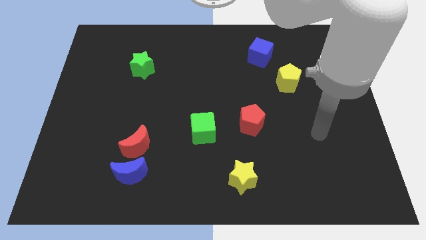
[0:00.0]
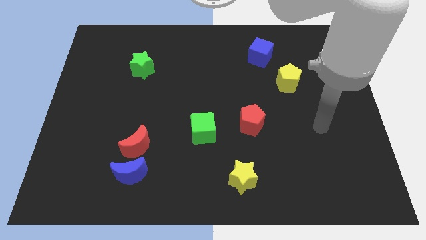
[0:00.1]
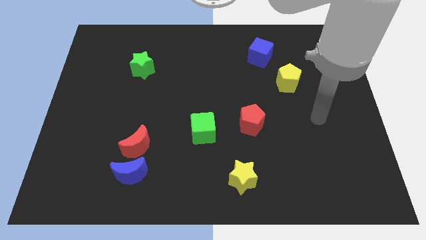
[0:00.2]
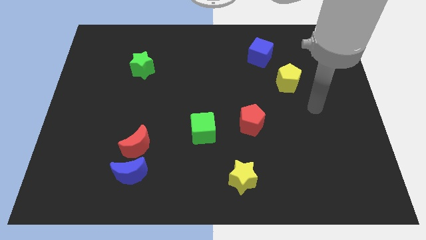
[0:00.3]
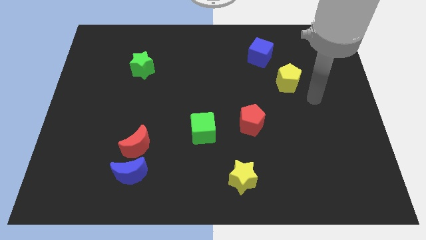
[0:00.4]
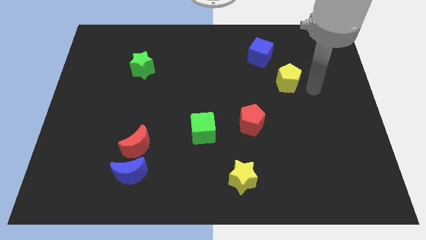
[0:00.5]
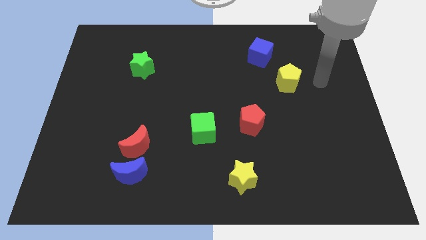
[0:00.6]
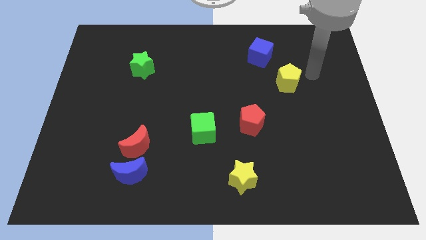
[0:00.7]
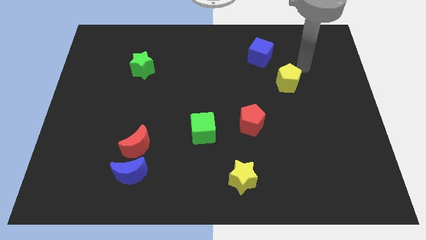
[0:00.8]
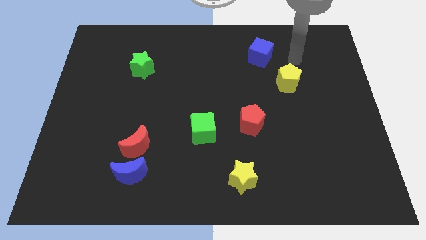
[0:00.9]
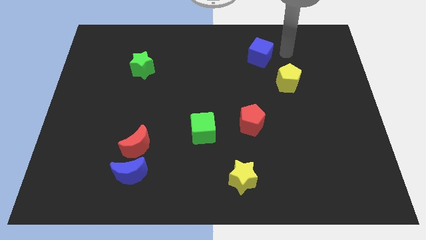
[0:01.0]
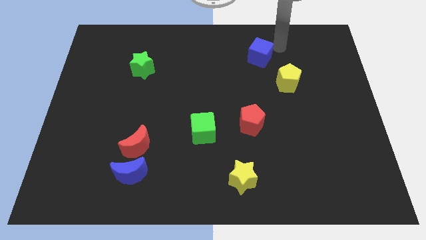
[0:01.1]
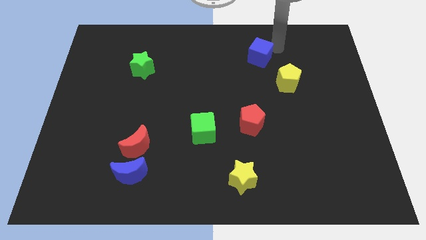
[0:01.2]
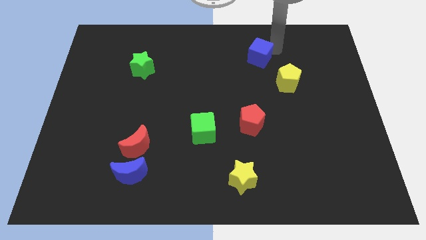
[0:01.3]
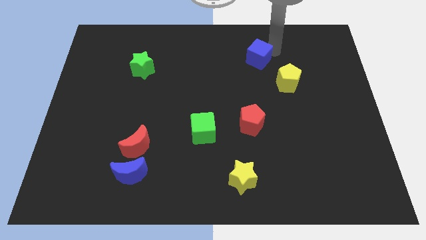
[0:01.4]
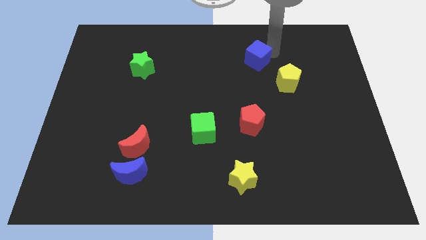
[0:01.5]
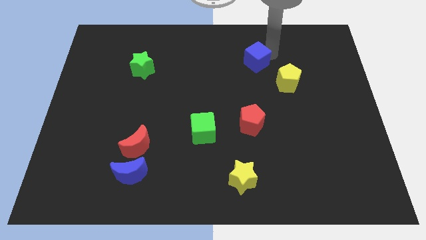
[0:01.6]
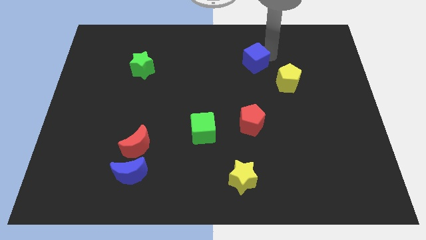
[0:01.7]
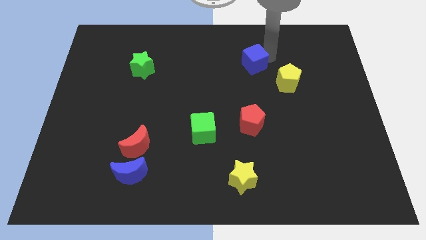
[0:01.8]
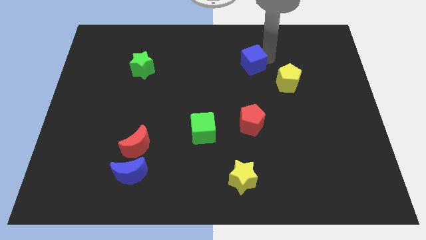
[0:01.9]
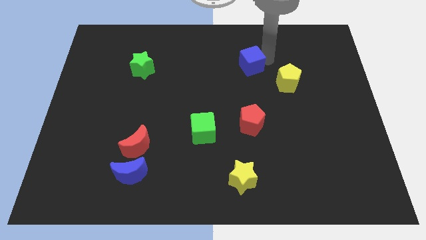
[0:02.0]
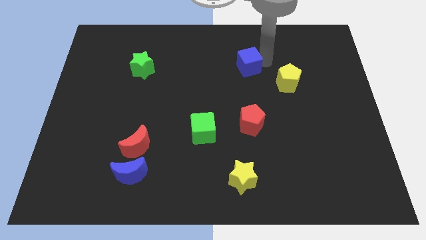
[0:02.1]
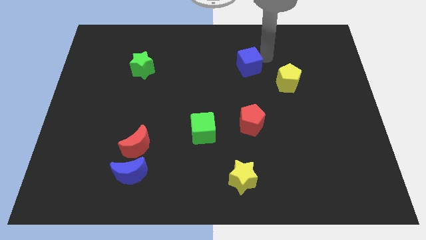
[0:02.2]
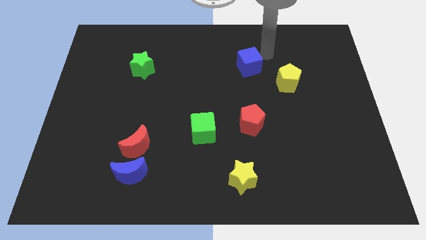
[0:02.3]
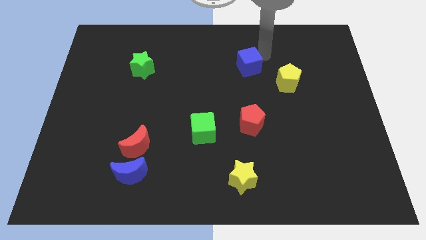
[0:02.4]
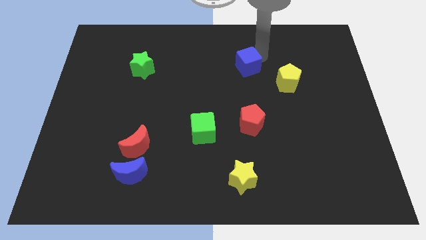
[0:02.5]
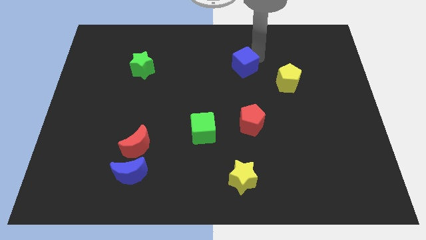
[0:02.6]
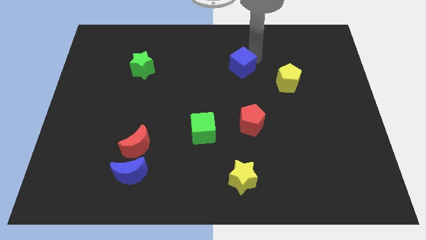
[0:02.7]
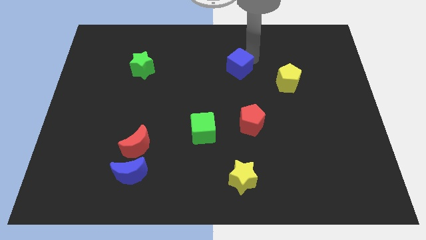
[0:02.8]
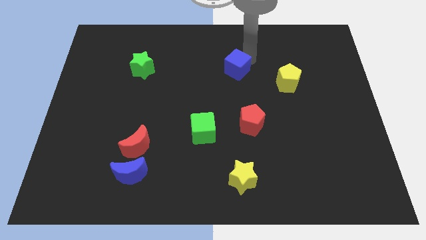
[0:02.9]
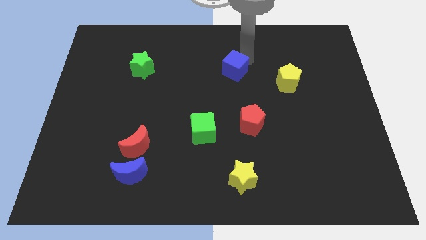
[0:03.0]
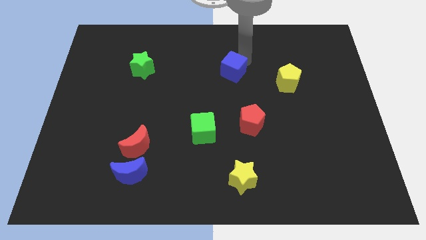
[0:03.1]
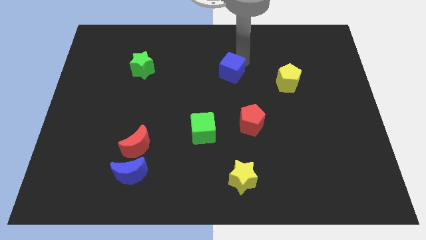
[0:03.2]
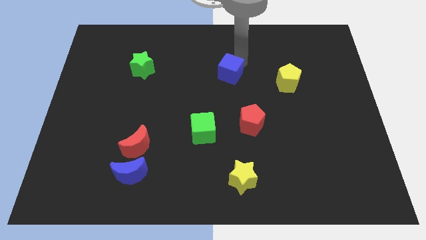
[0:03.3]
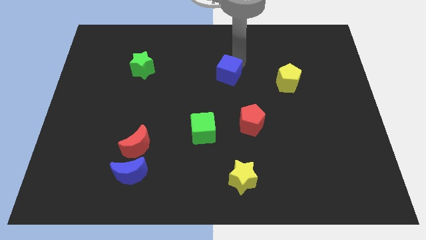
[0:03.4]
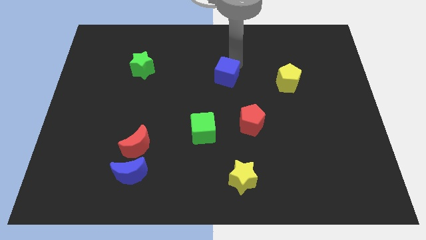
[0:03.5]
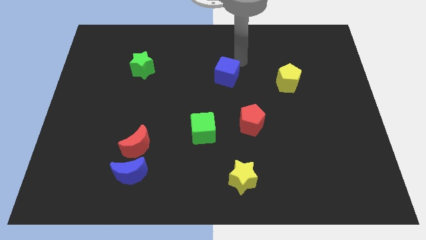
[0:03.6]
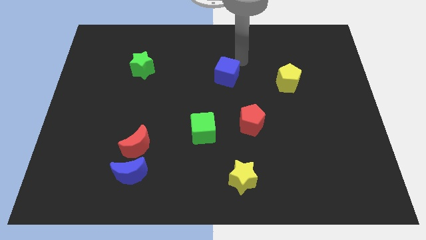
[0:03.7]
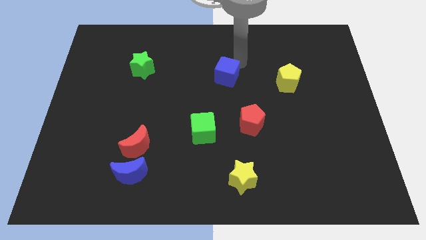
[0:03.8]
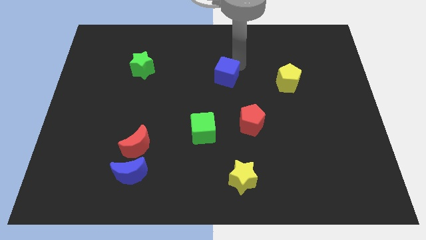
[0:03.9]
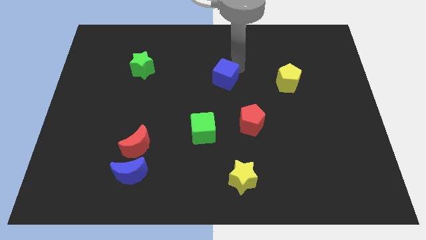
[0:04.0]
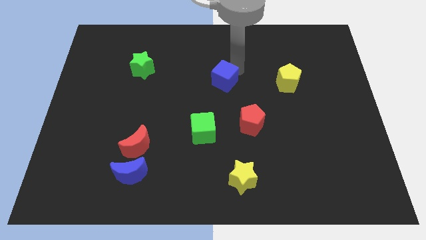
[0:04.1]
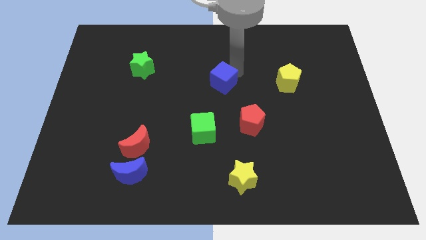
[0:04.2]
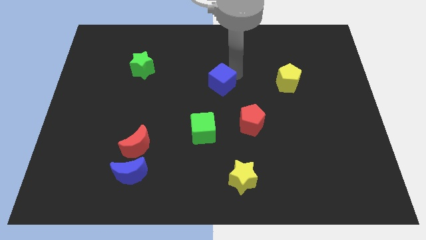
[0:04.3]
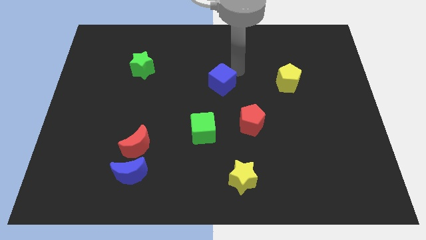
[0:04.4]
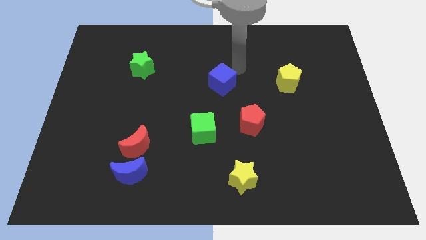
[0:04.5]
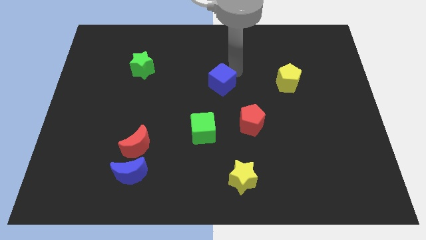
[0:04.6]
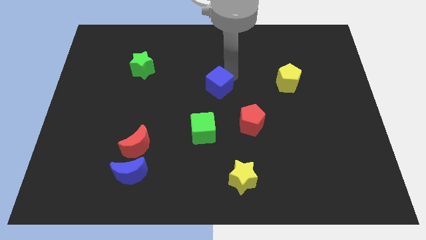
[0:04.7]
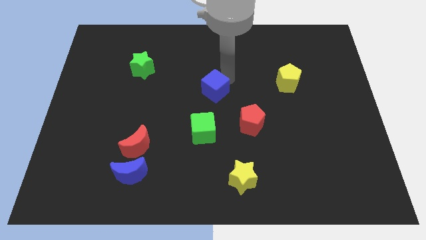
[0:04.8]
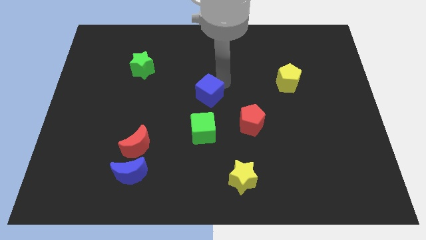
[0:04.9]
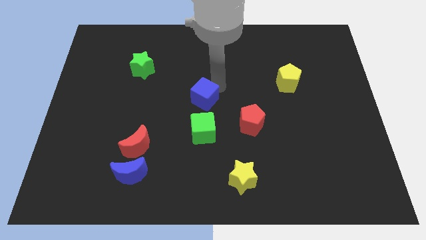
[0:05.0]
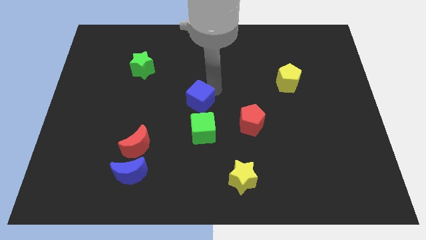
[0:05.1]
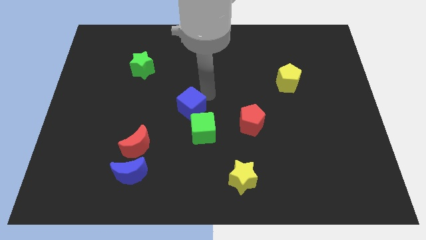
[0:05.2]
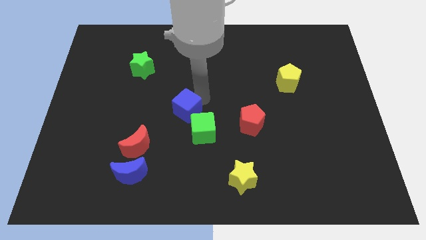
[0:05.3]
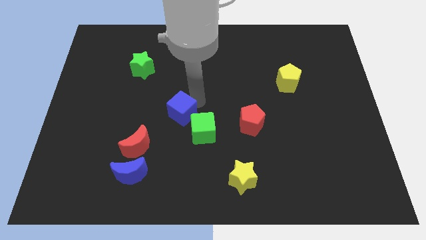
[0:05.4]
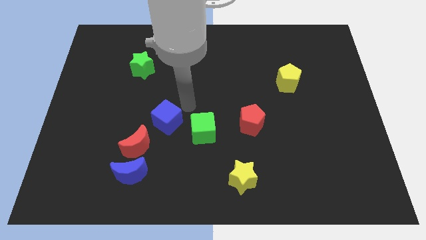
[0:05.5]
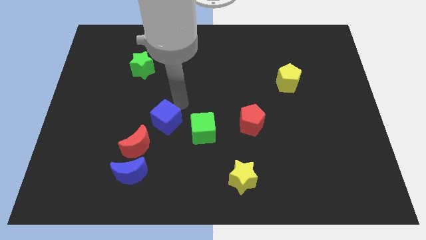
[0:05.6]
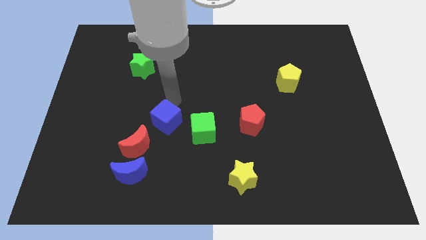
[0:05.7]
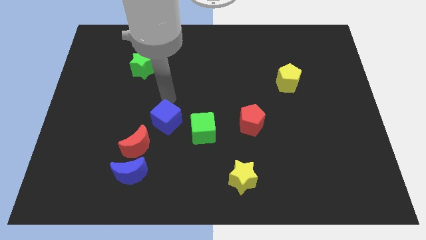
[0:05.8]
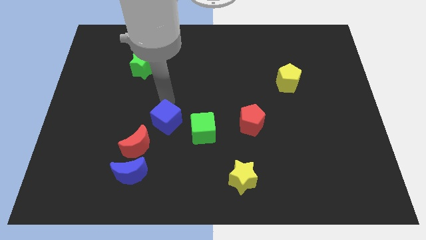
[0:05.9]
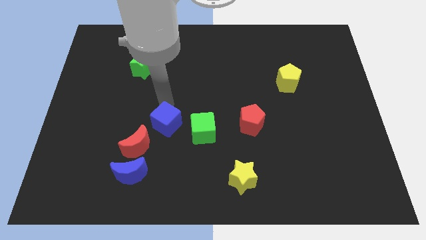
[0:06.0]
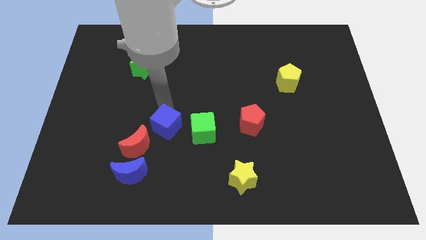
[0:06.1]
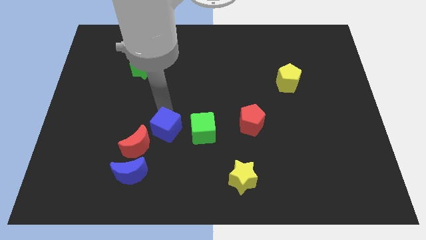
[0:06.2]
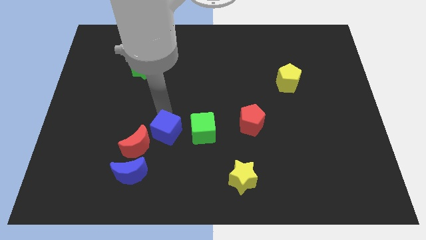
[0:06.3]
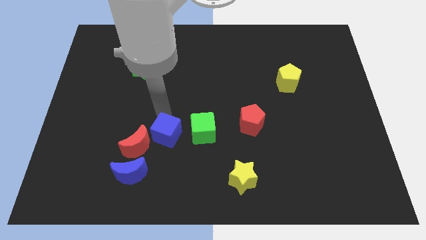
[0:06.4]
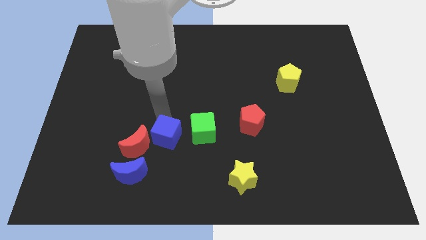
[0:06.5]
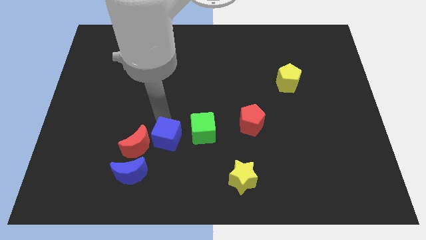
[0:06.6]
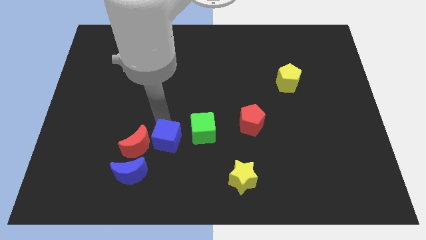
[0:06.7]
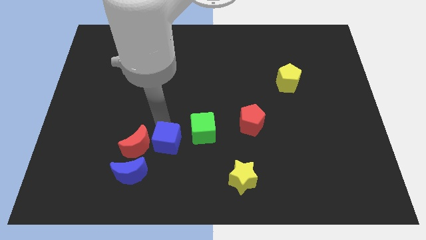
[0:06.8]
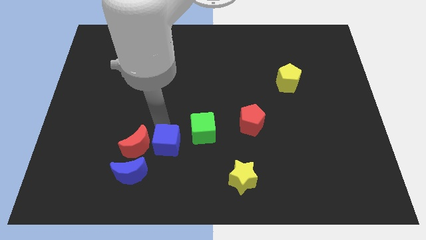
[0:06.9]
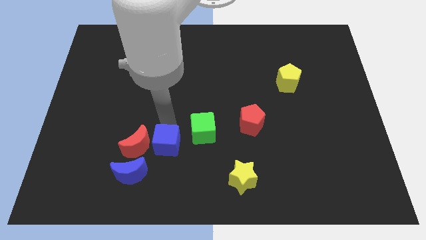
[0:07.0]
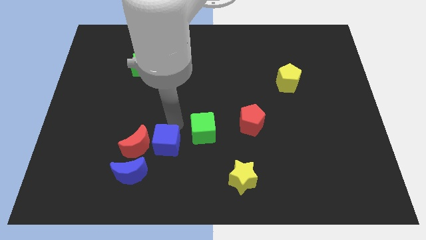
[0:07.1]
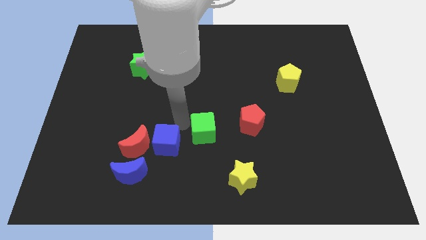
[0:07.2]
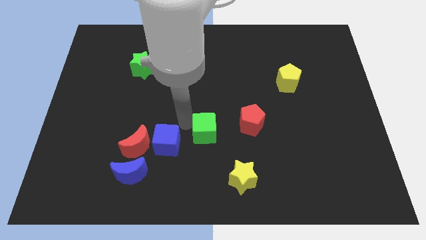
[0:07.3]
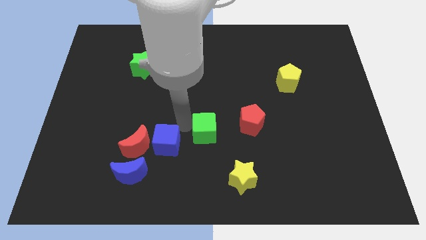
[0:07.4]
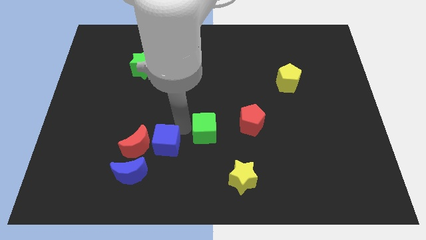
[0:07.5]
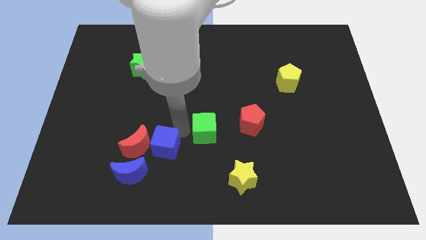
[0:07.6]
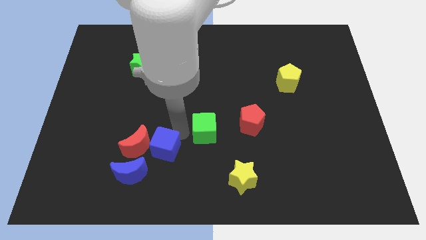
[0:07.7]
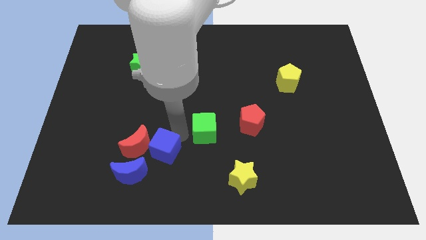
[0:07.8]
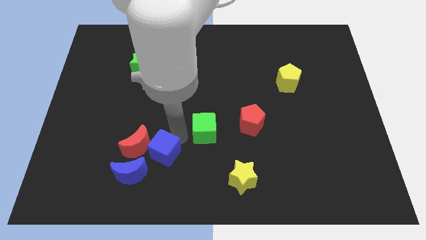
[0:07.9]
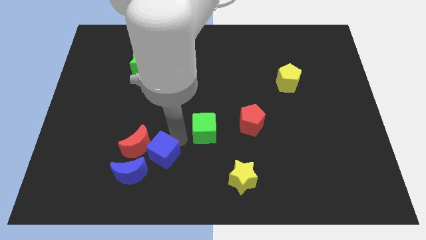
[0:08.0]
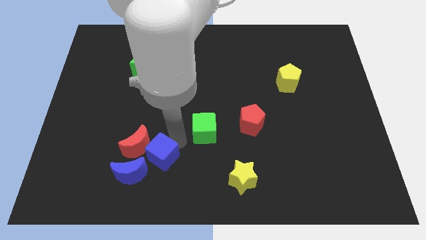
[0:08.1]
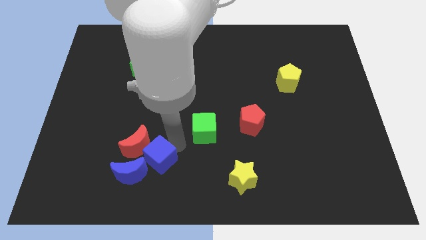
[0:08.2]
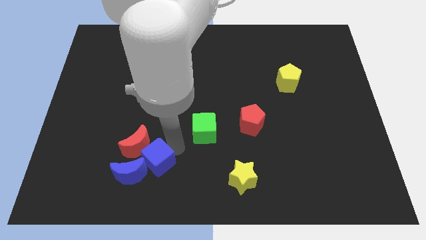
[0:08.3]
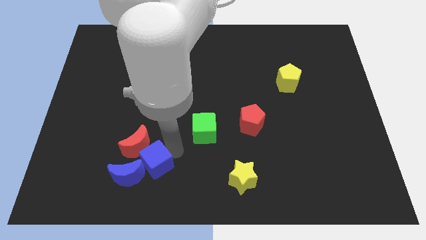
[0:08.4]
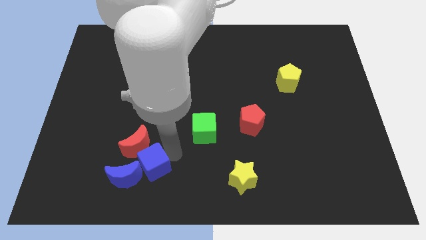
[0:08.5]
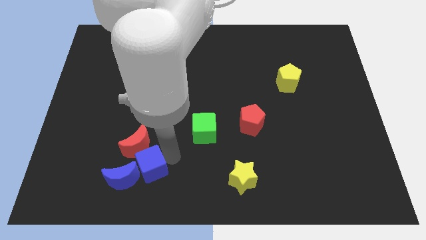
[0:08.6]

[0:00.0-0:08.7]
slide the blue cube next to the blue moon
